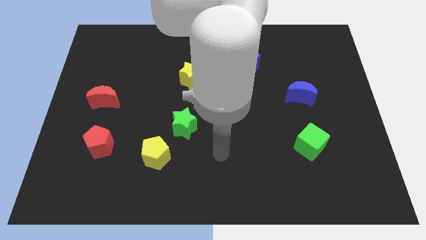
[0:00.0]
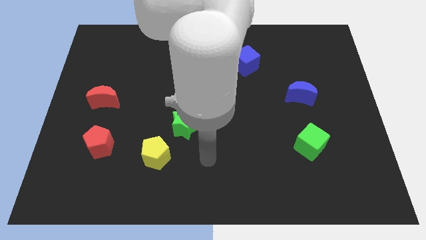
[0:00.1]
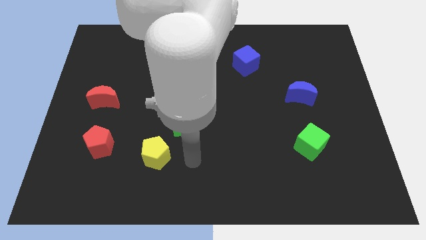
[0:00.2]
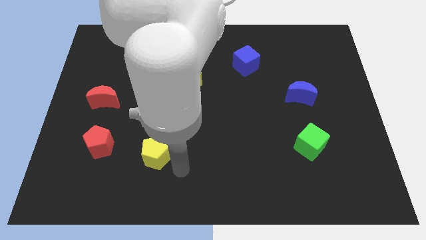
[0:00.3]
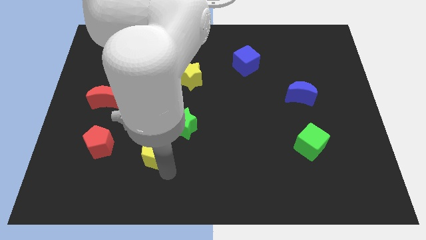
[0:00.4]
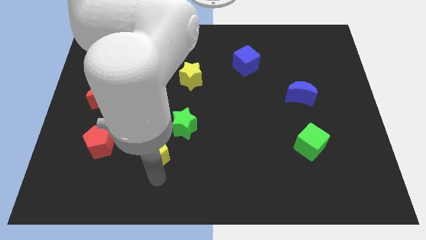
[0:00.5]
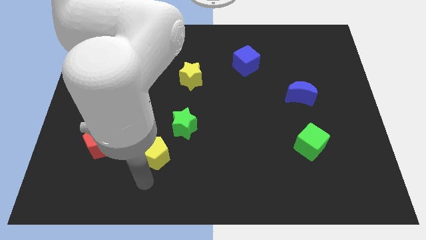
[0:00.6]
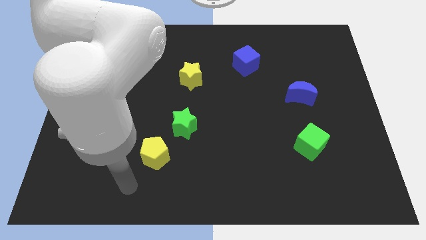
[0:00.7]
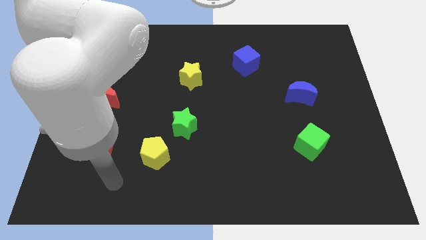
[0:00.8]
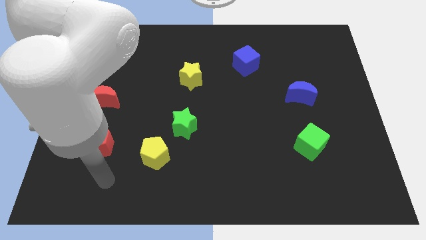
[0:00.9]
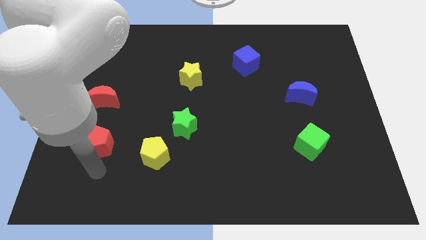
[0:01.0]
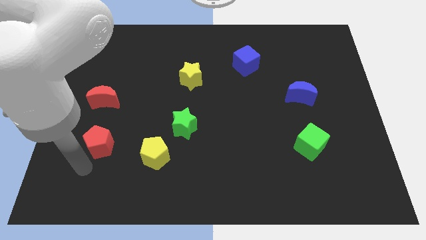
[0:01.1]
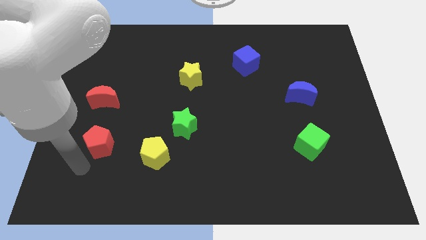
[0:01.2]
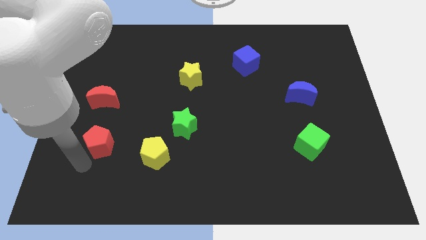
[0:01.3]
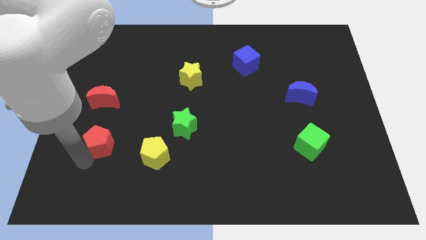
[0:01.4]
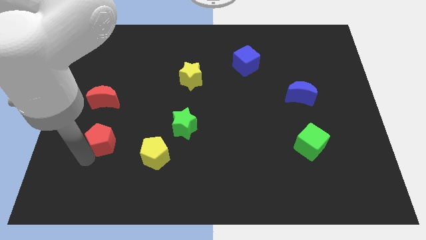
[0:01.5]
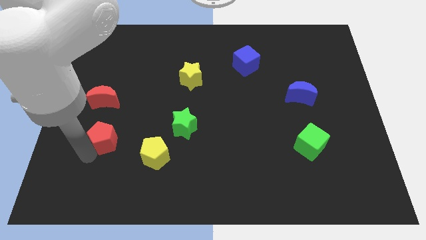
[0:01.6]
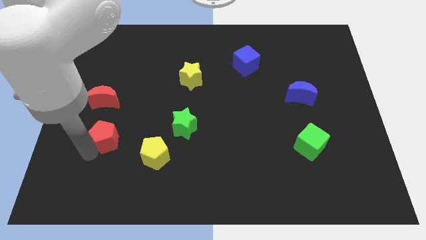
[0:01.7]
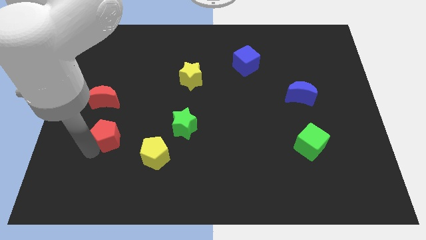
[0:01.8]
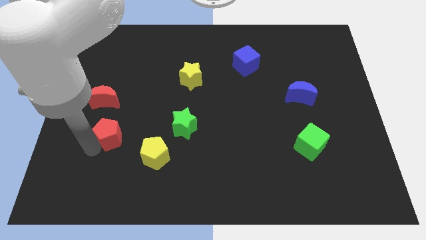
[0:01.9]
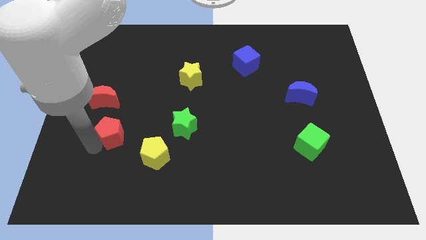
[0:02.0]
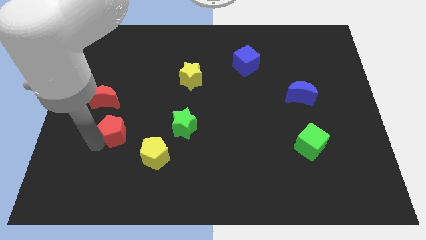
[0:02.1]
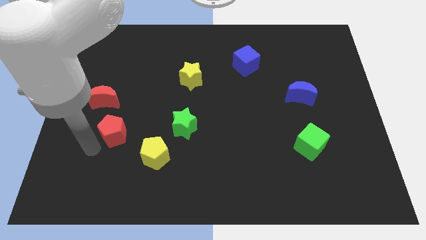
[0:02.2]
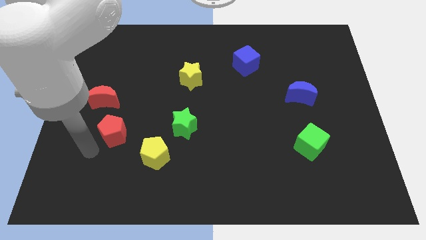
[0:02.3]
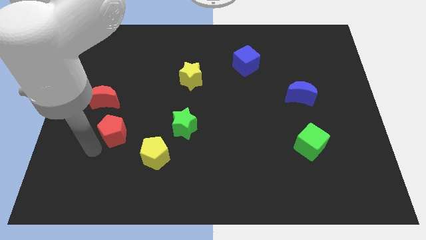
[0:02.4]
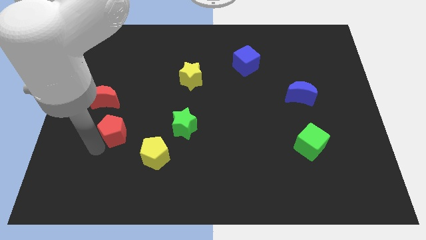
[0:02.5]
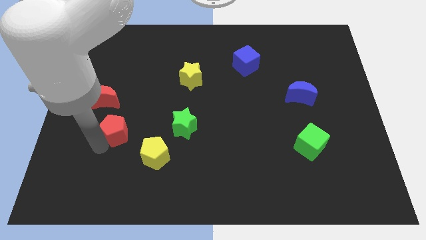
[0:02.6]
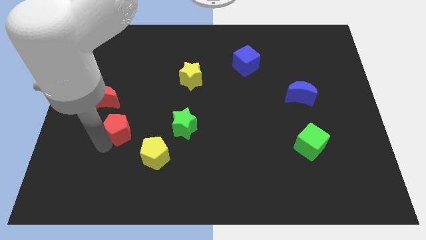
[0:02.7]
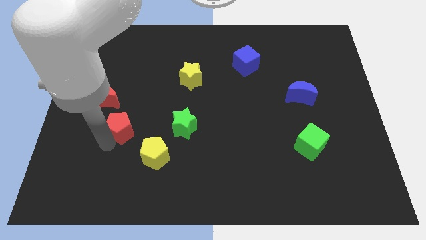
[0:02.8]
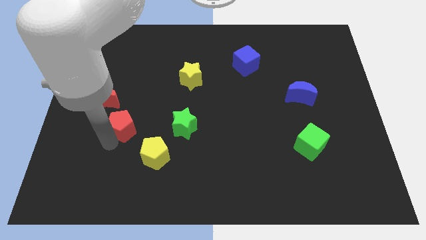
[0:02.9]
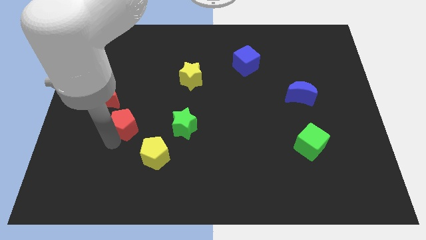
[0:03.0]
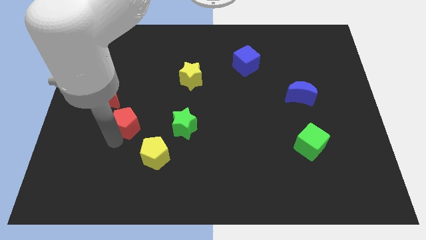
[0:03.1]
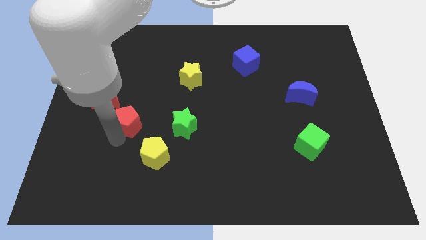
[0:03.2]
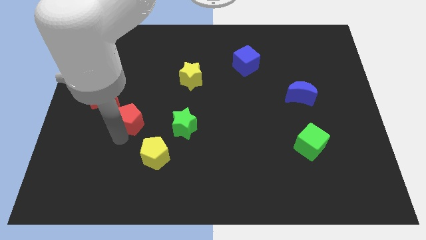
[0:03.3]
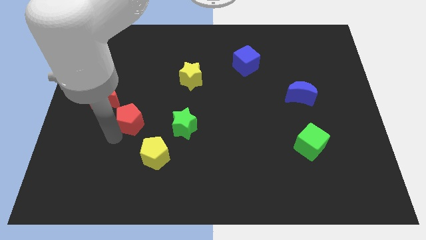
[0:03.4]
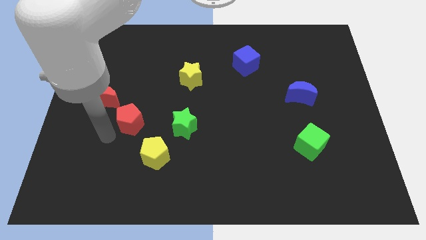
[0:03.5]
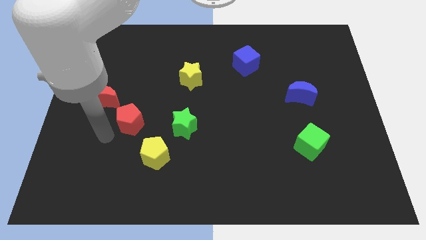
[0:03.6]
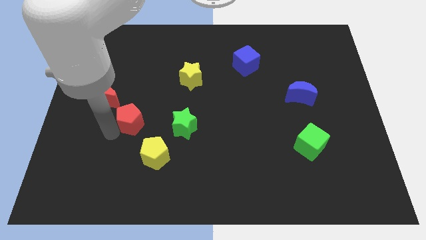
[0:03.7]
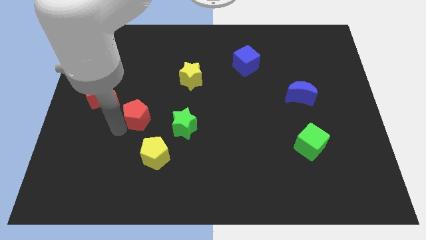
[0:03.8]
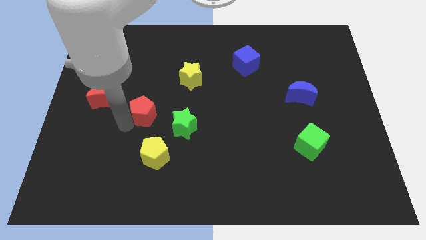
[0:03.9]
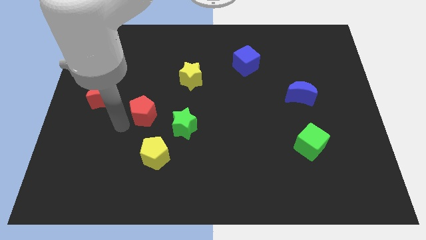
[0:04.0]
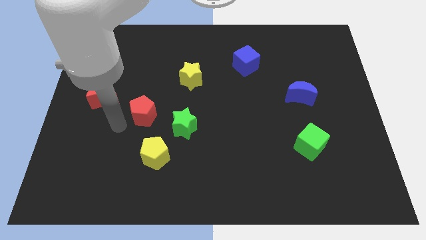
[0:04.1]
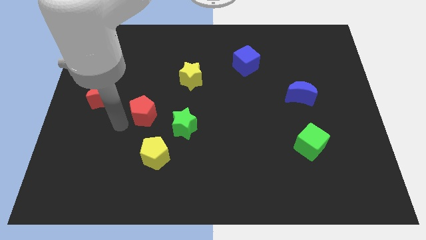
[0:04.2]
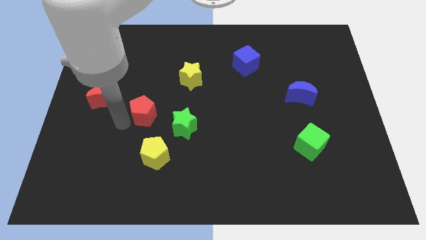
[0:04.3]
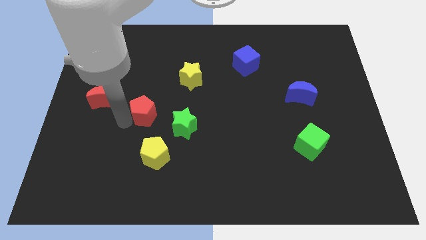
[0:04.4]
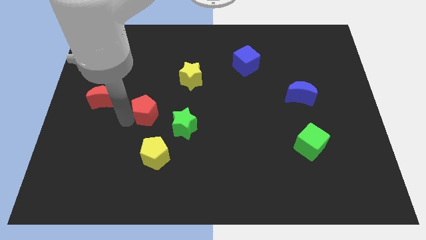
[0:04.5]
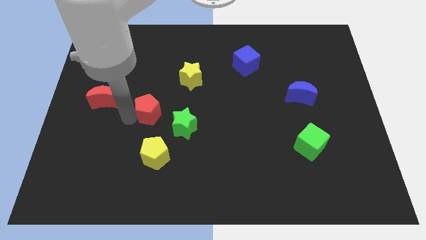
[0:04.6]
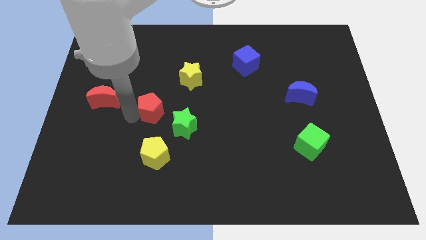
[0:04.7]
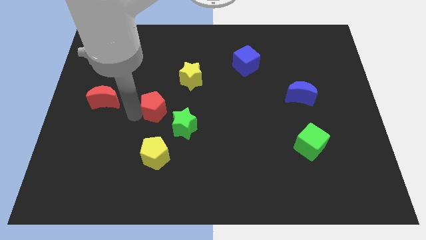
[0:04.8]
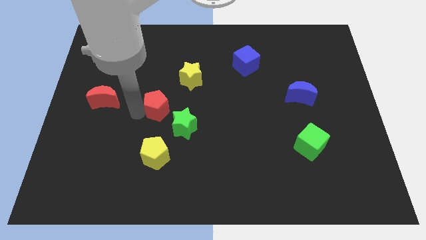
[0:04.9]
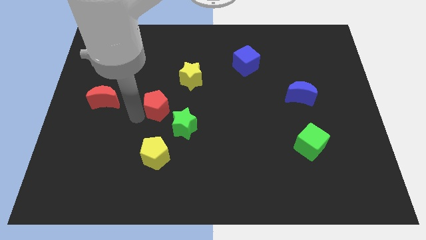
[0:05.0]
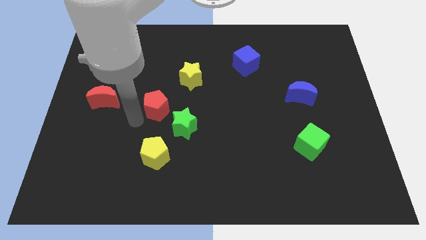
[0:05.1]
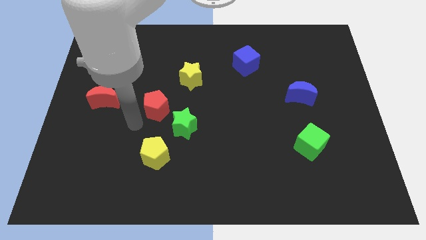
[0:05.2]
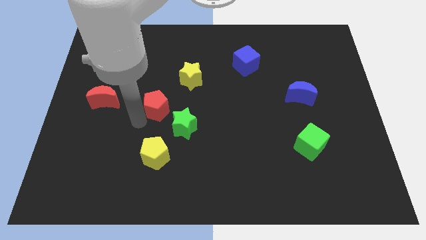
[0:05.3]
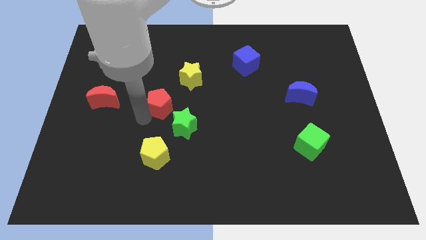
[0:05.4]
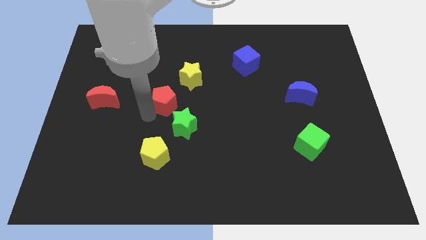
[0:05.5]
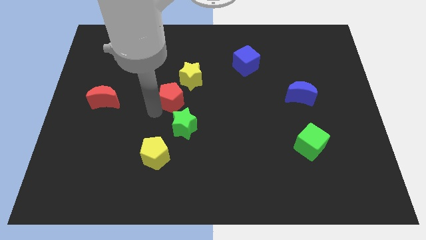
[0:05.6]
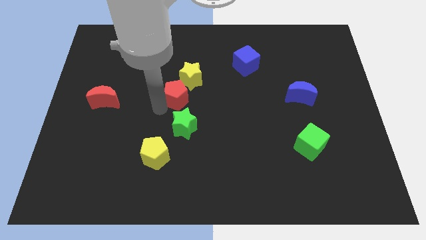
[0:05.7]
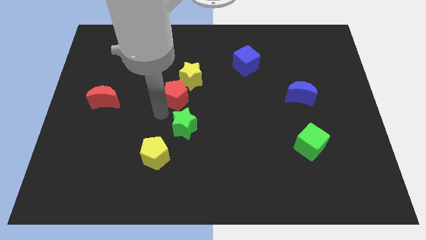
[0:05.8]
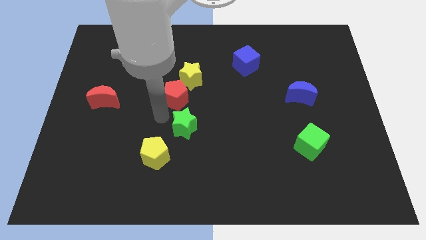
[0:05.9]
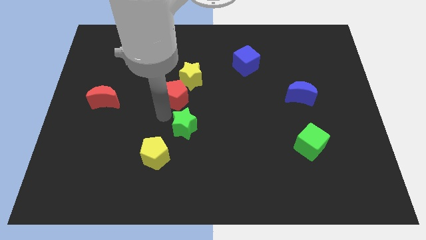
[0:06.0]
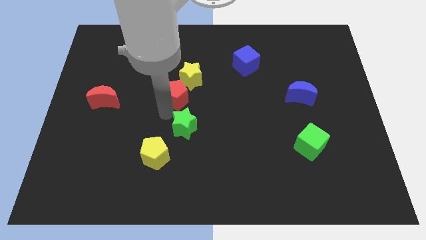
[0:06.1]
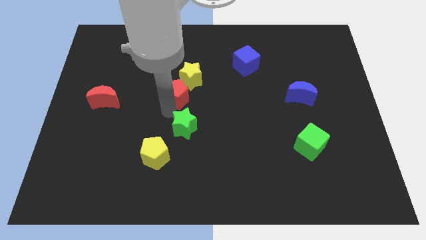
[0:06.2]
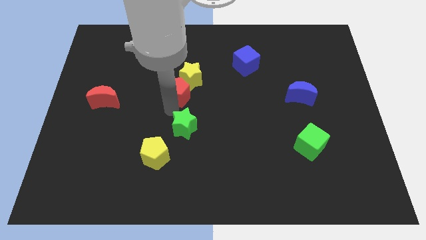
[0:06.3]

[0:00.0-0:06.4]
move the red pentagon towards the yellow star
